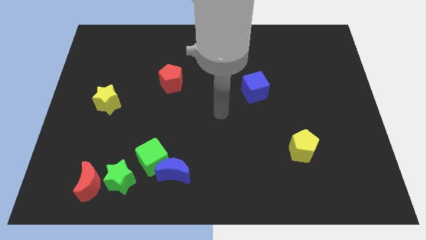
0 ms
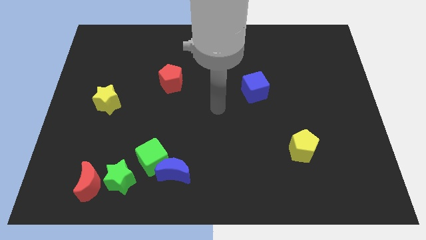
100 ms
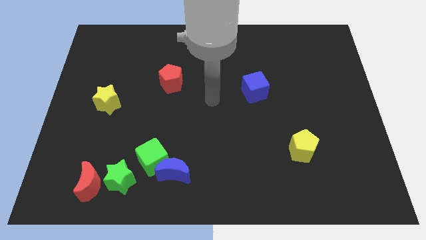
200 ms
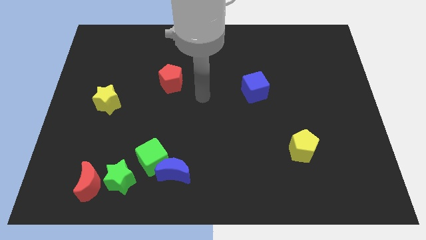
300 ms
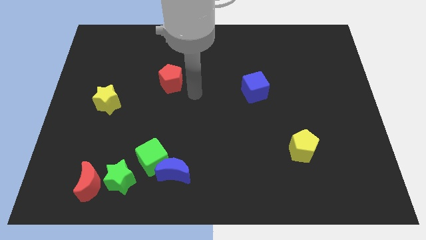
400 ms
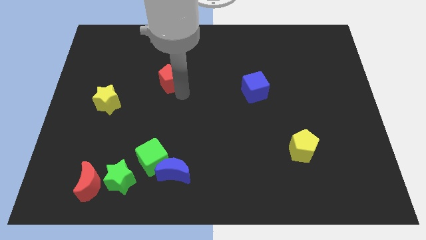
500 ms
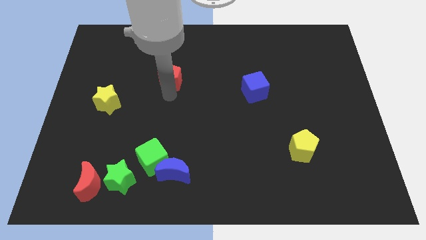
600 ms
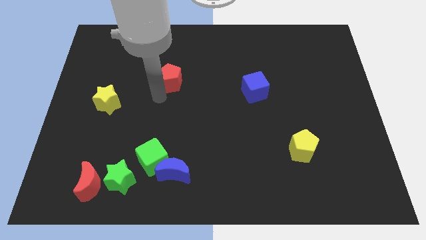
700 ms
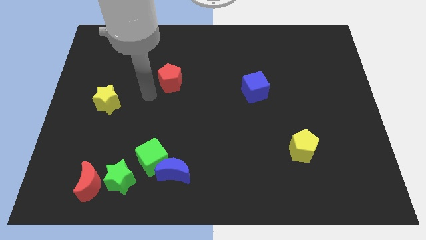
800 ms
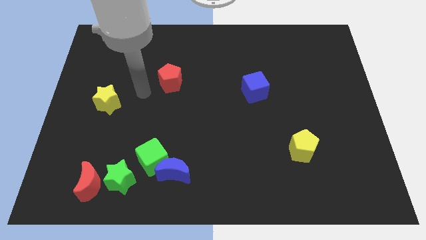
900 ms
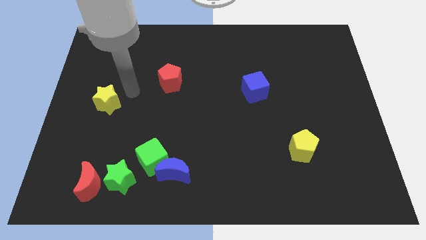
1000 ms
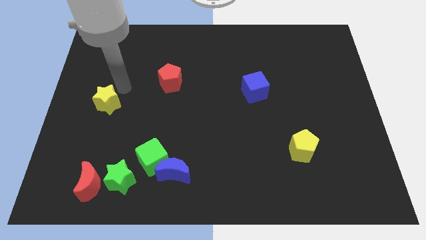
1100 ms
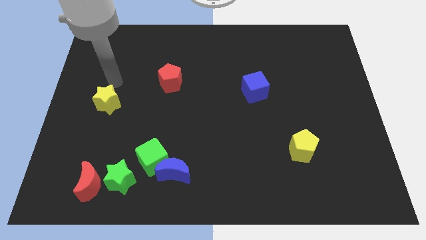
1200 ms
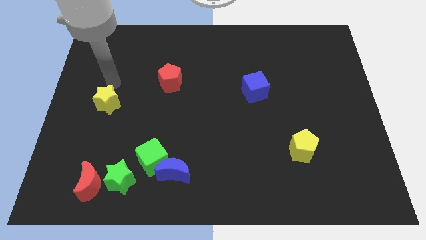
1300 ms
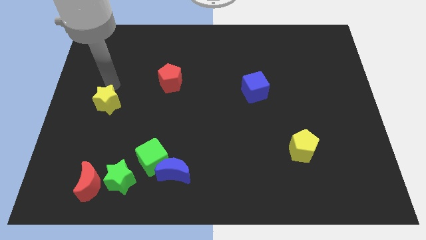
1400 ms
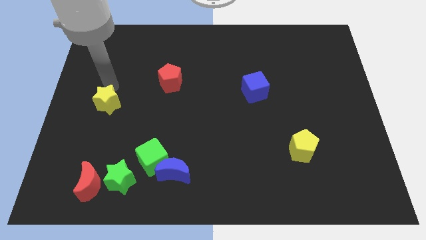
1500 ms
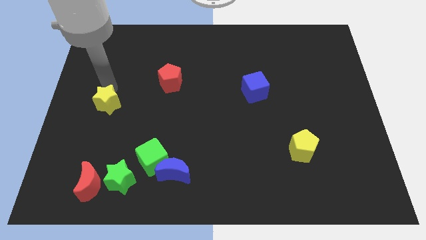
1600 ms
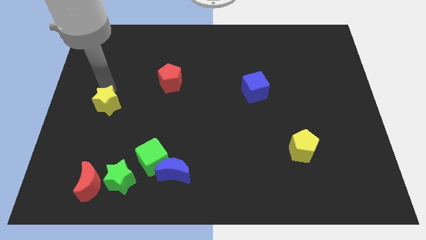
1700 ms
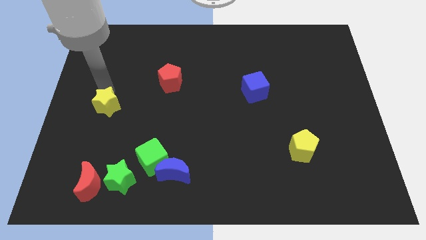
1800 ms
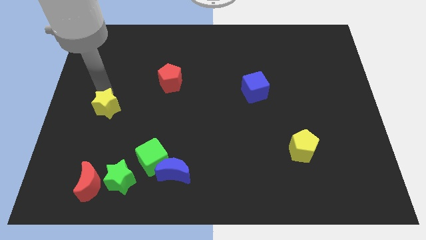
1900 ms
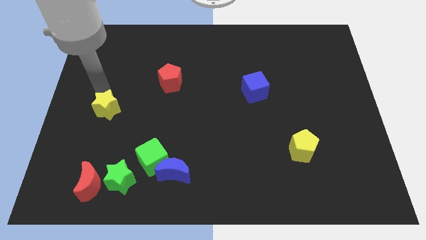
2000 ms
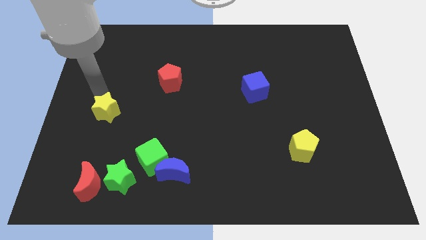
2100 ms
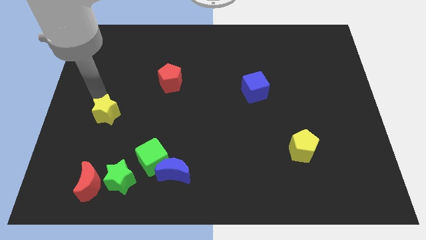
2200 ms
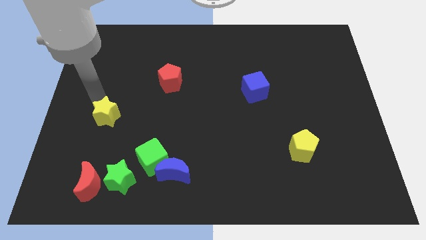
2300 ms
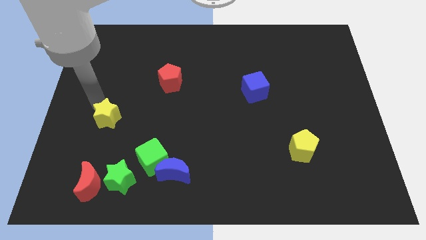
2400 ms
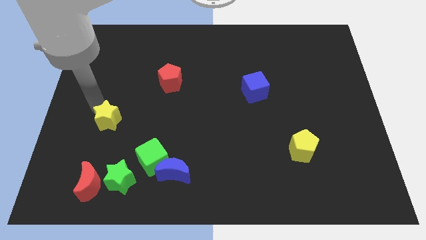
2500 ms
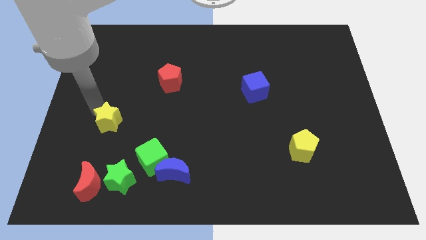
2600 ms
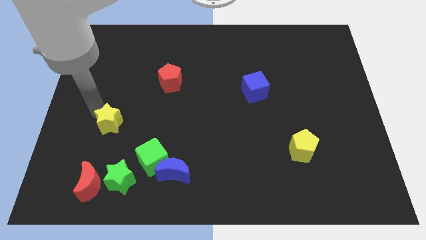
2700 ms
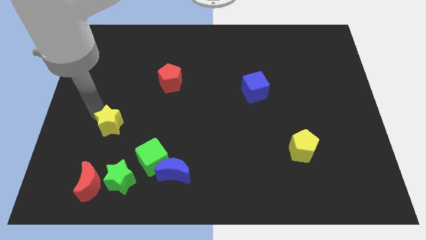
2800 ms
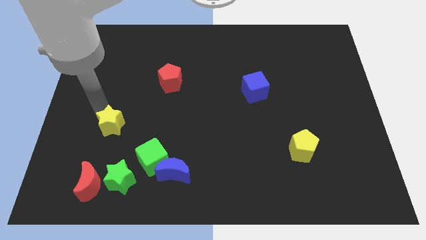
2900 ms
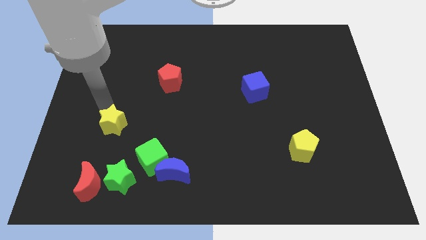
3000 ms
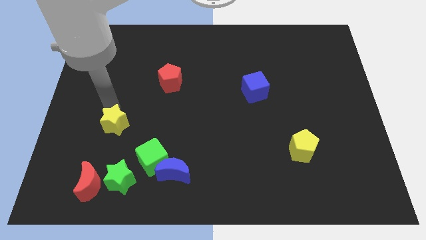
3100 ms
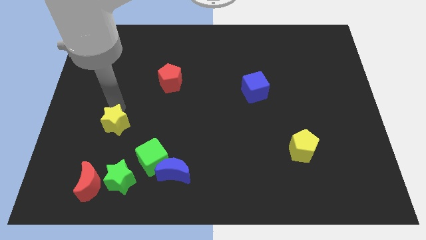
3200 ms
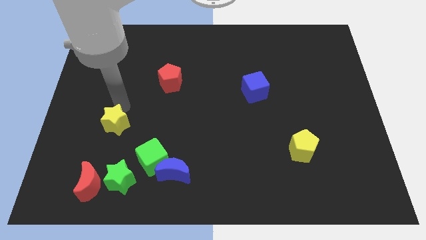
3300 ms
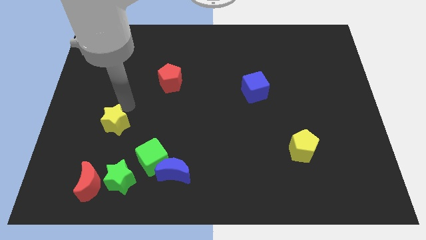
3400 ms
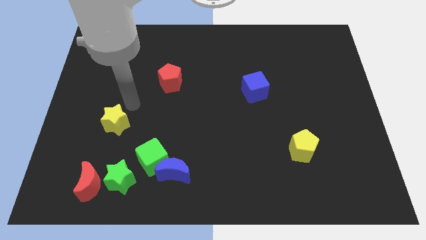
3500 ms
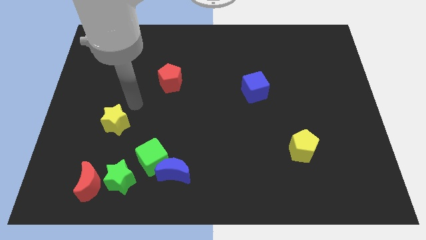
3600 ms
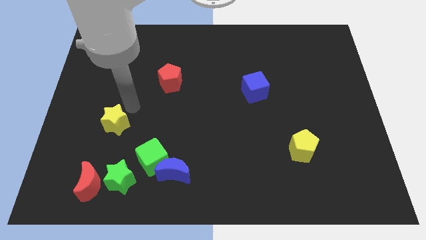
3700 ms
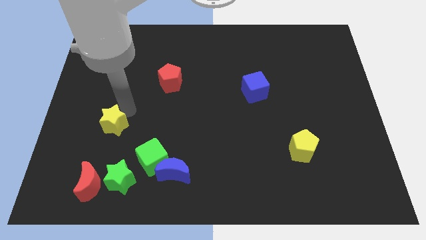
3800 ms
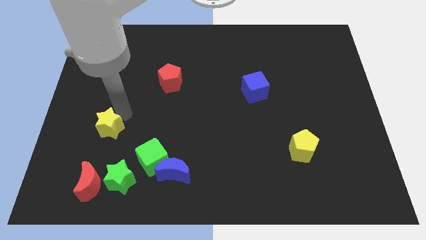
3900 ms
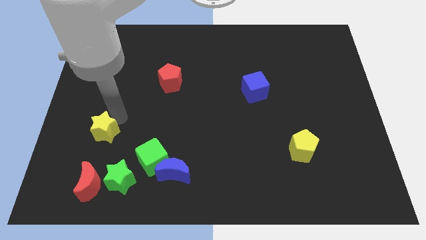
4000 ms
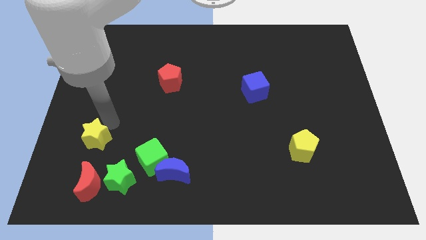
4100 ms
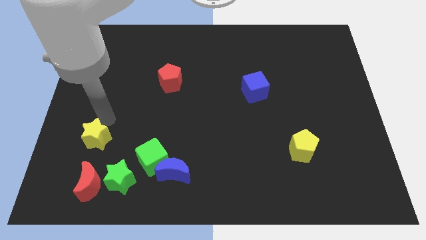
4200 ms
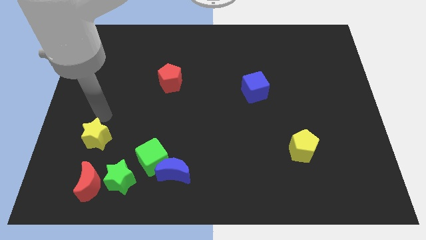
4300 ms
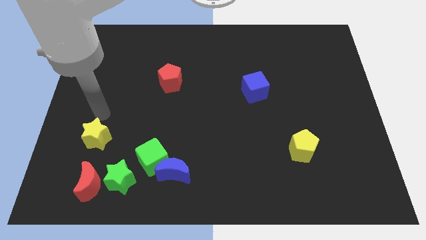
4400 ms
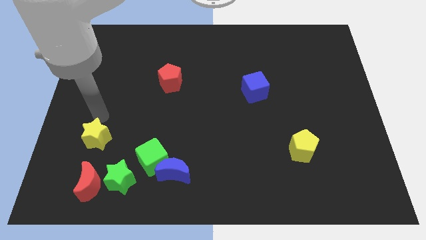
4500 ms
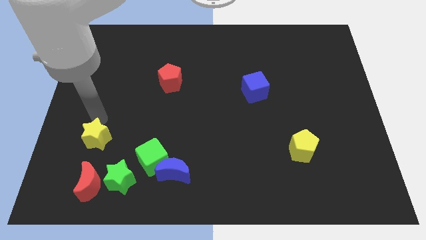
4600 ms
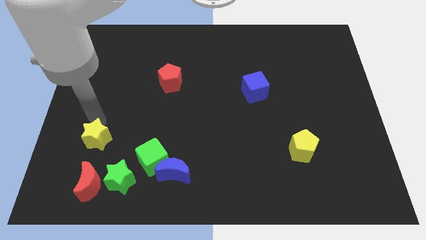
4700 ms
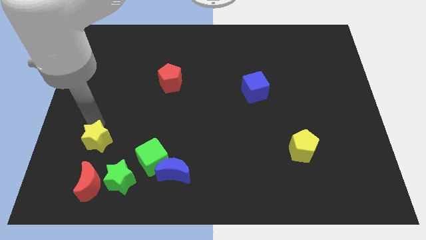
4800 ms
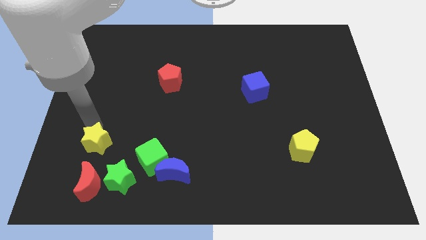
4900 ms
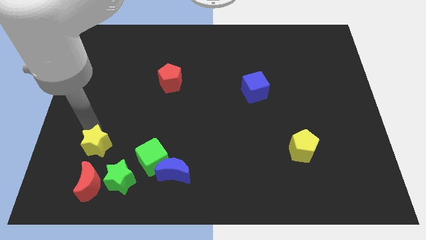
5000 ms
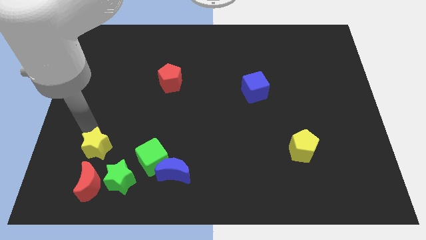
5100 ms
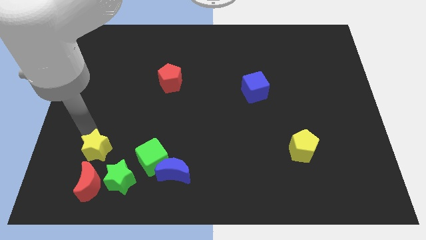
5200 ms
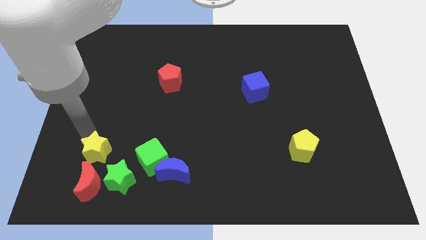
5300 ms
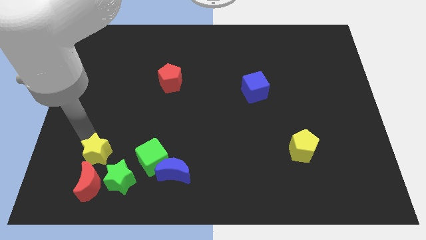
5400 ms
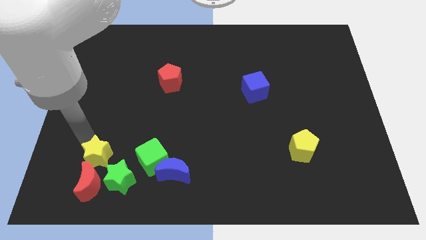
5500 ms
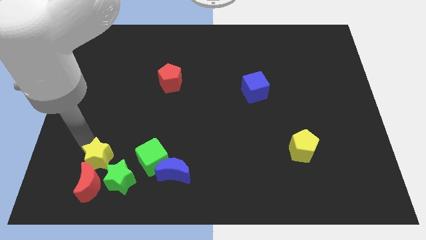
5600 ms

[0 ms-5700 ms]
move the yellow star next to the red moon

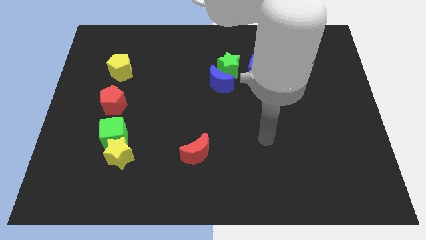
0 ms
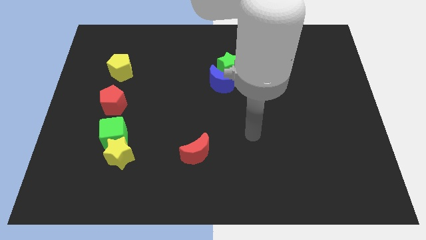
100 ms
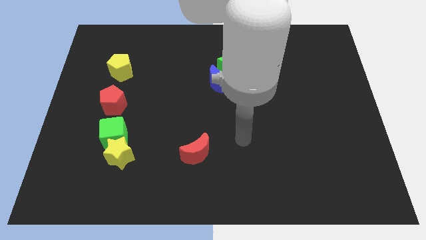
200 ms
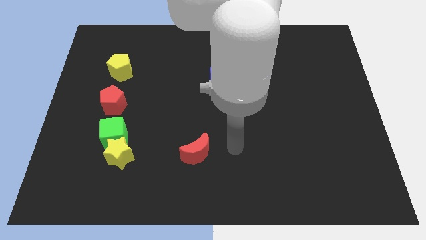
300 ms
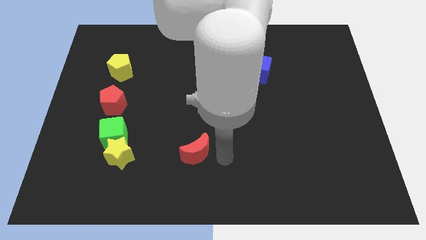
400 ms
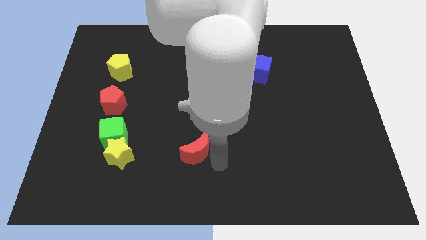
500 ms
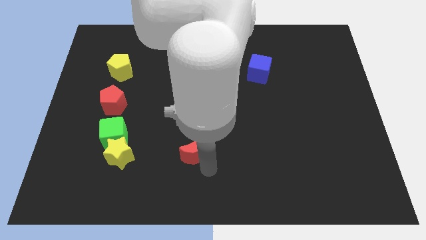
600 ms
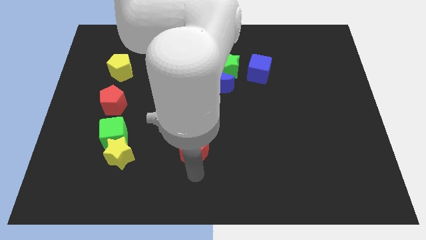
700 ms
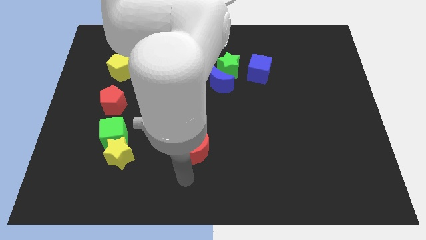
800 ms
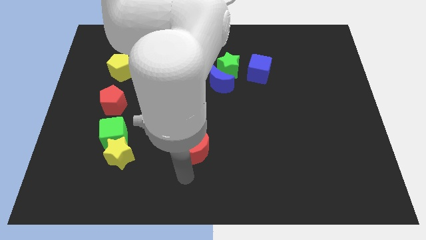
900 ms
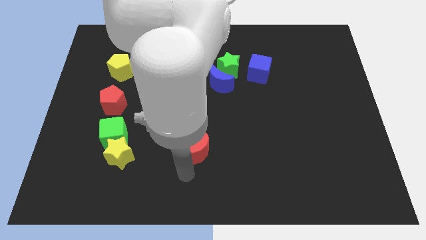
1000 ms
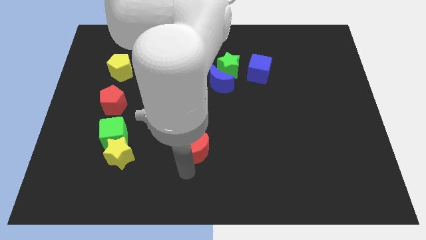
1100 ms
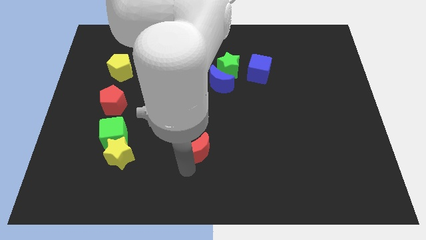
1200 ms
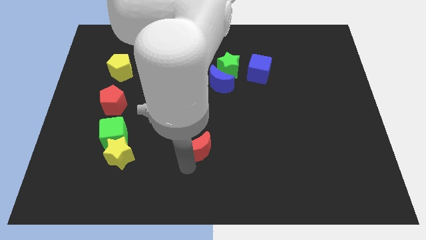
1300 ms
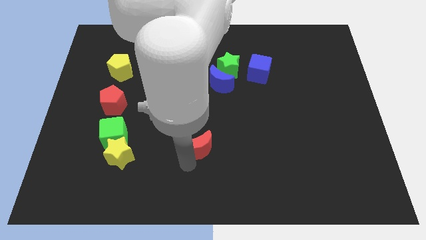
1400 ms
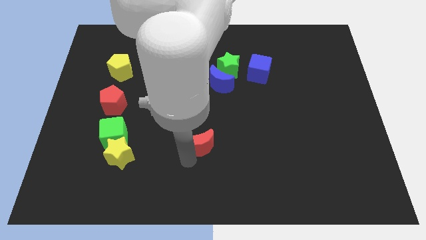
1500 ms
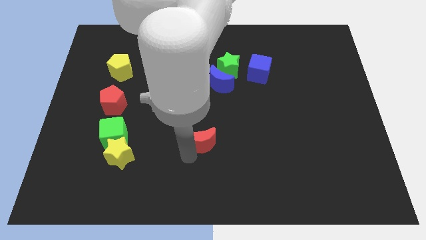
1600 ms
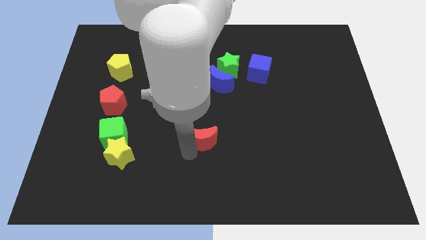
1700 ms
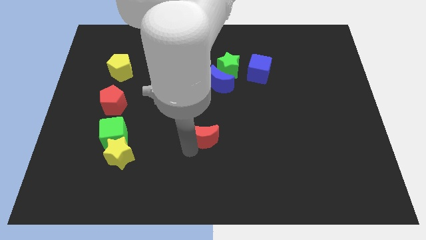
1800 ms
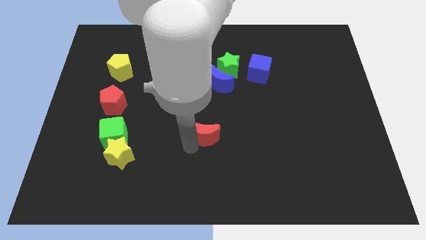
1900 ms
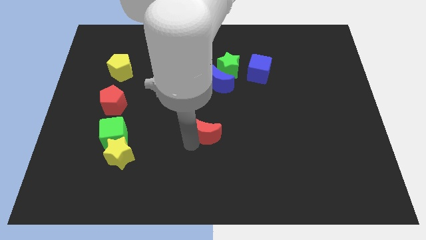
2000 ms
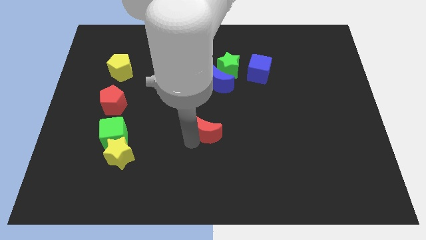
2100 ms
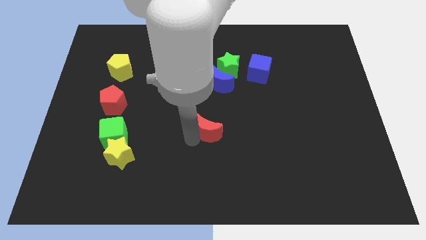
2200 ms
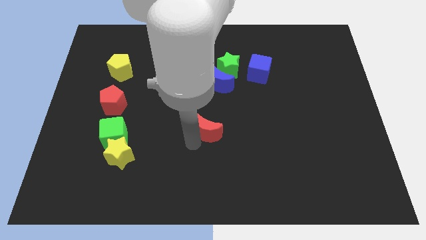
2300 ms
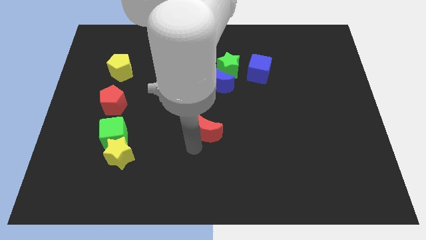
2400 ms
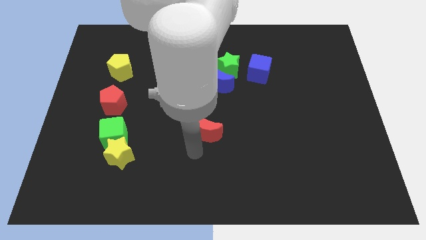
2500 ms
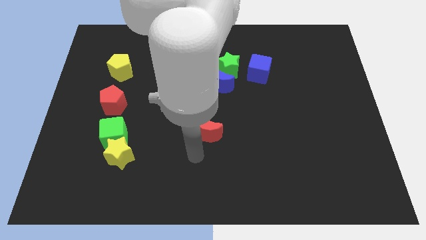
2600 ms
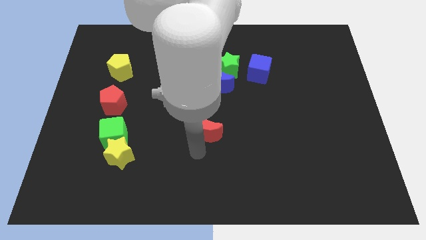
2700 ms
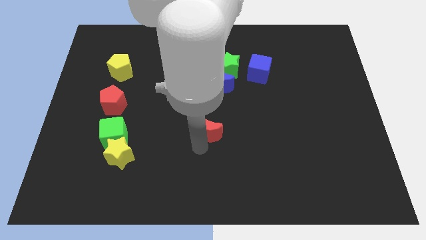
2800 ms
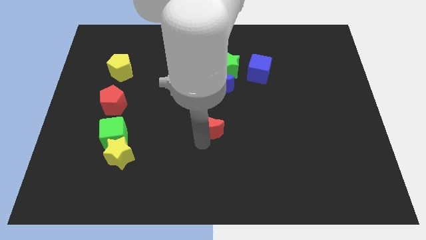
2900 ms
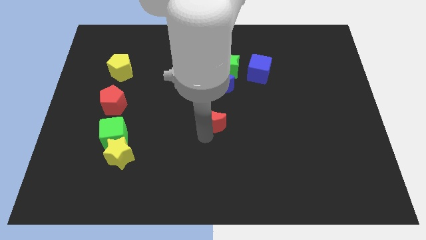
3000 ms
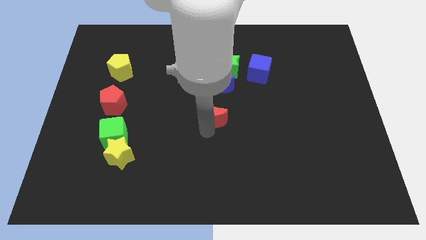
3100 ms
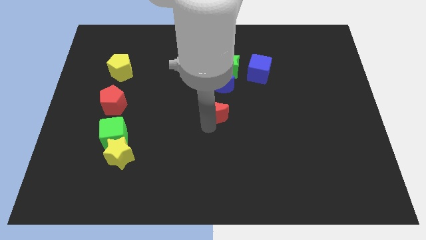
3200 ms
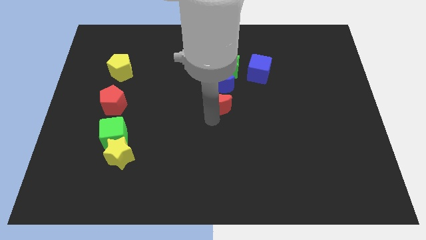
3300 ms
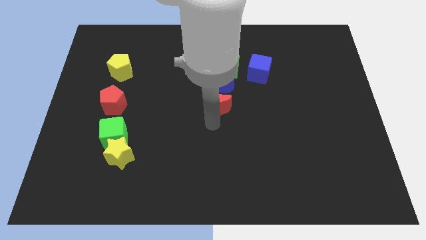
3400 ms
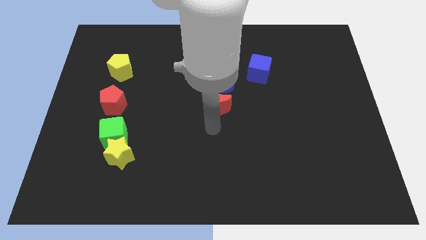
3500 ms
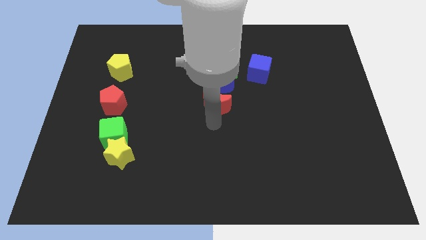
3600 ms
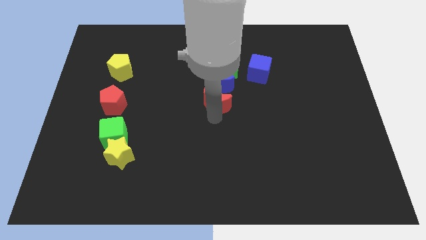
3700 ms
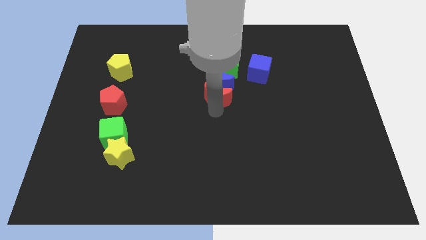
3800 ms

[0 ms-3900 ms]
slide the red moon next to the blue moon
